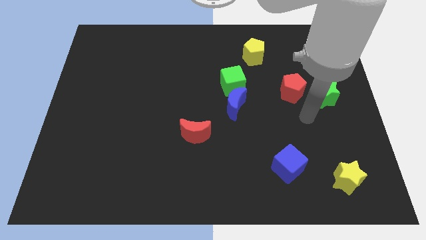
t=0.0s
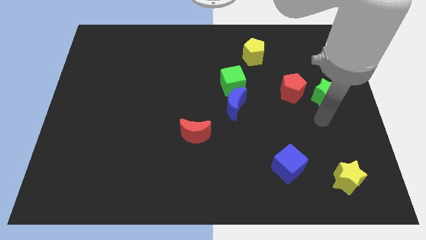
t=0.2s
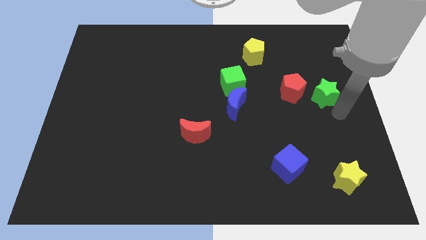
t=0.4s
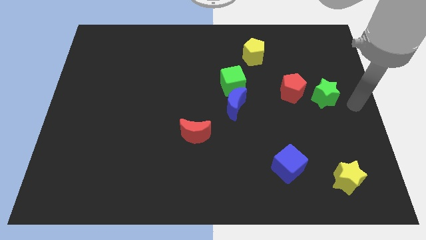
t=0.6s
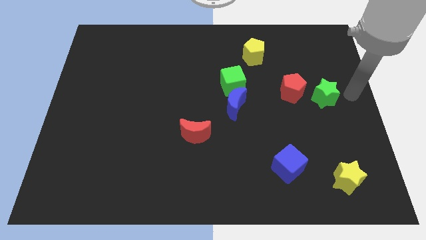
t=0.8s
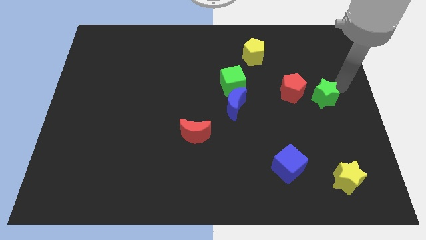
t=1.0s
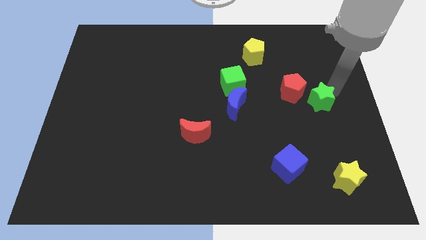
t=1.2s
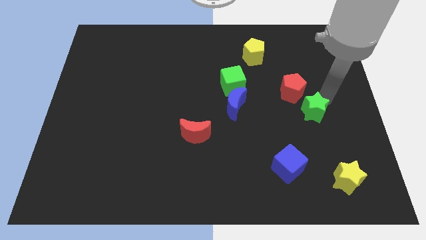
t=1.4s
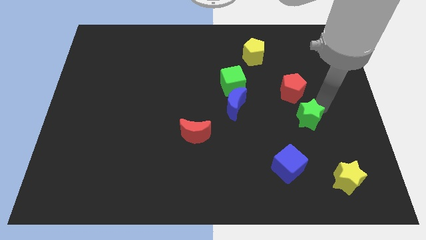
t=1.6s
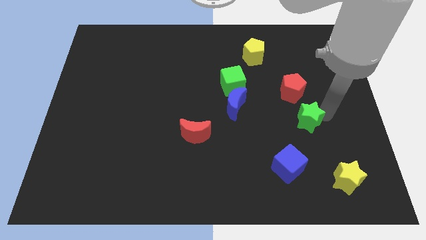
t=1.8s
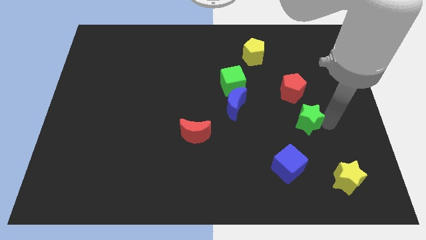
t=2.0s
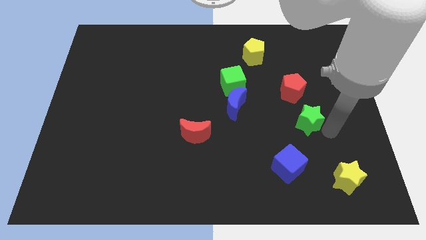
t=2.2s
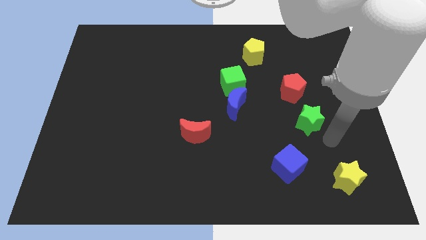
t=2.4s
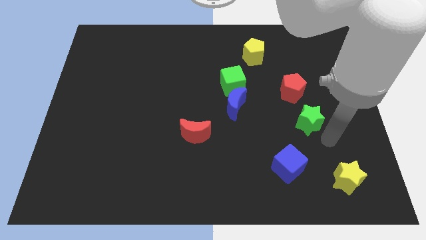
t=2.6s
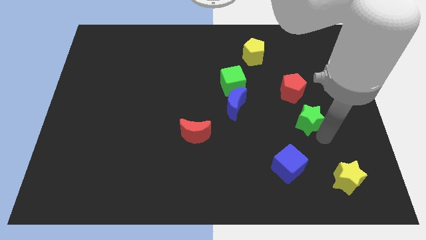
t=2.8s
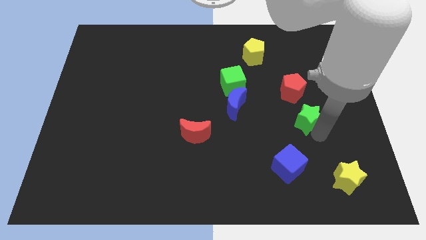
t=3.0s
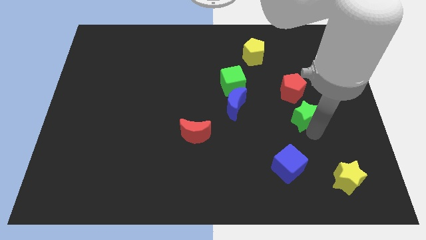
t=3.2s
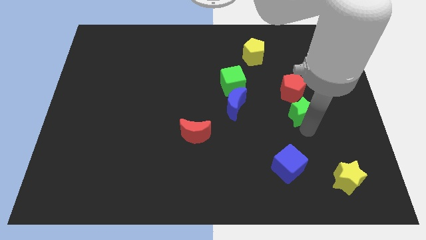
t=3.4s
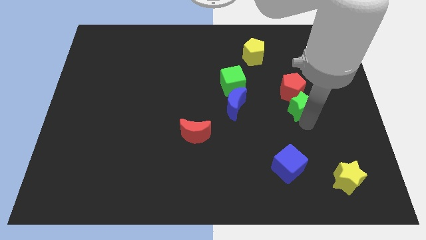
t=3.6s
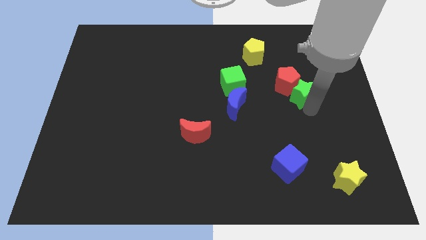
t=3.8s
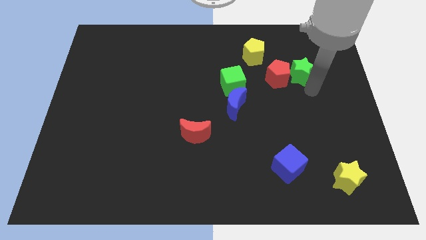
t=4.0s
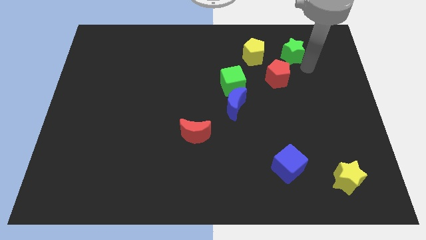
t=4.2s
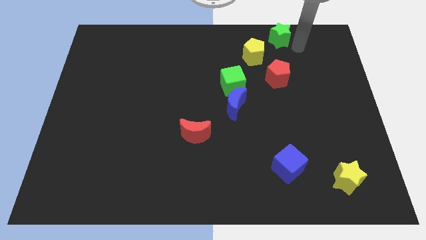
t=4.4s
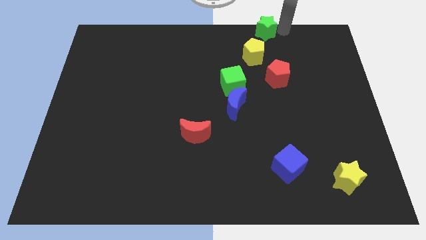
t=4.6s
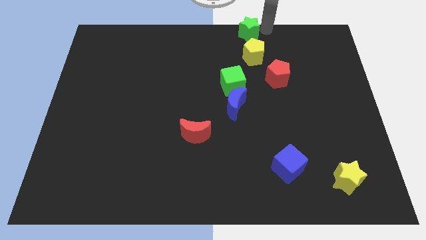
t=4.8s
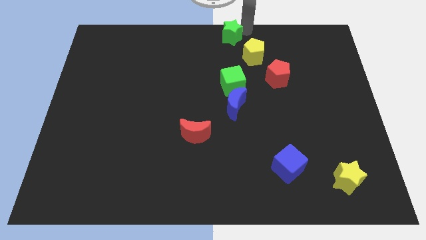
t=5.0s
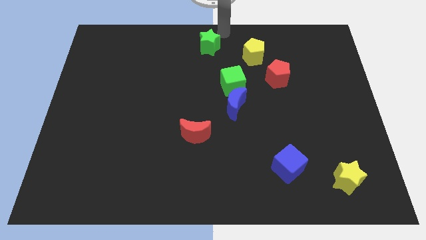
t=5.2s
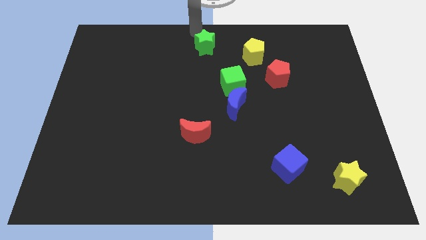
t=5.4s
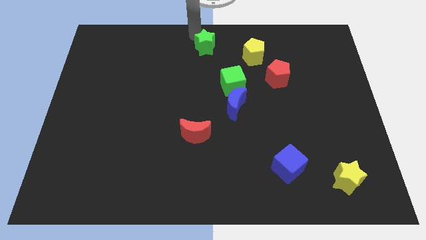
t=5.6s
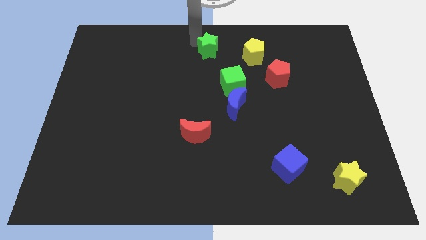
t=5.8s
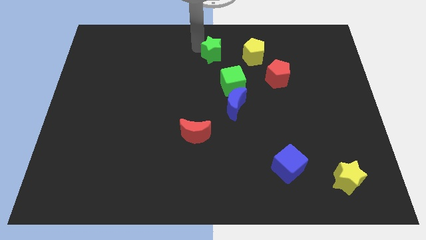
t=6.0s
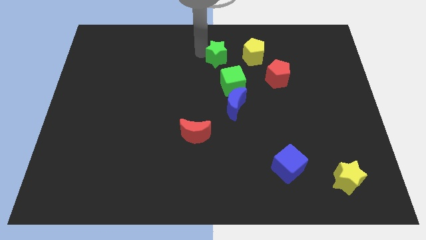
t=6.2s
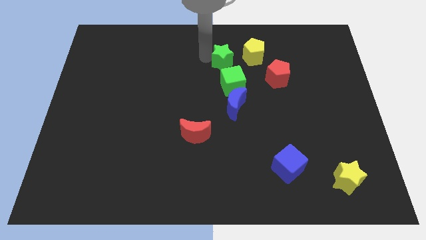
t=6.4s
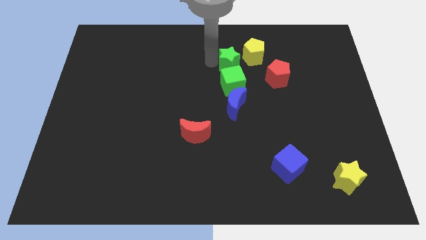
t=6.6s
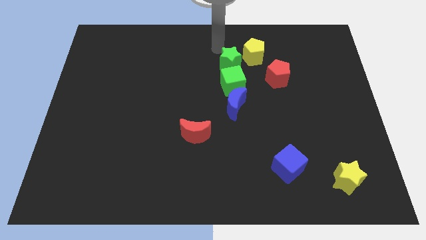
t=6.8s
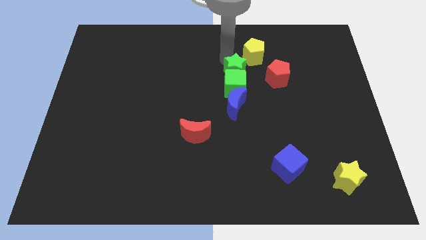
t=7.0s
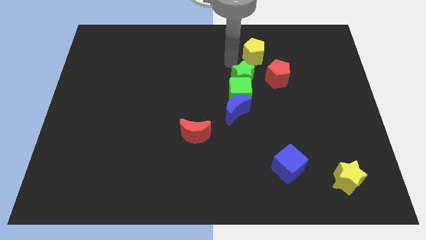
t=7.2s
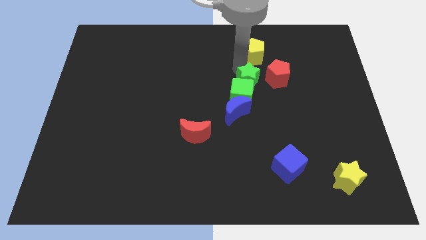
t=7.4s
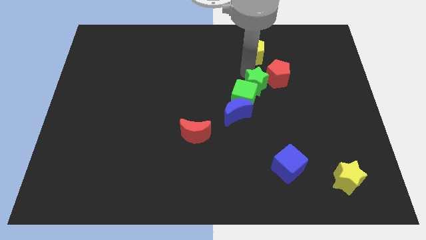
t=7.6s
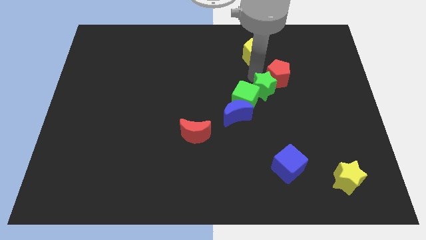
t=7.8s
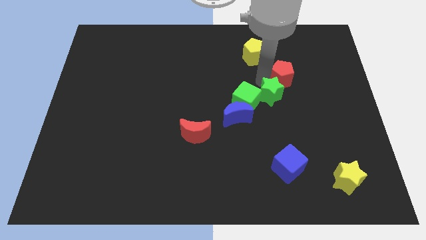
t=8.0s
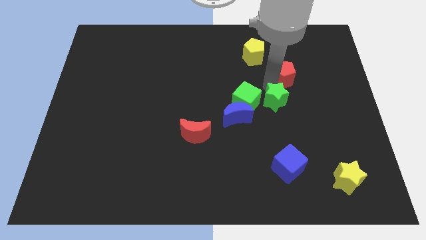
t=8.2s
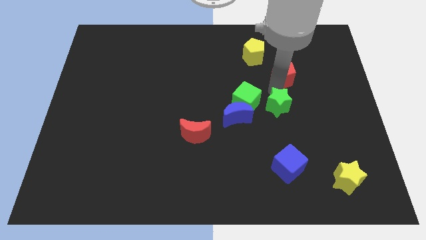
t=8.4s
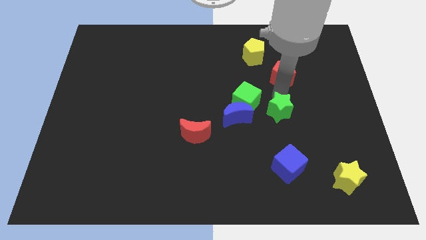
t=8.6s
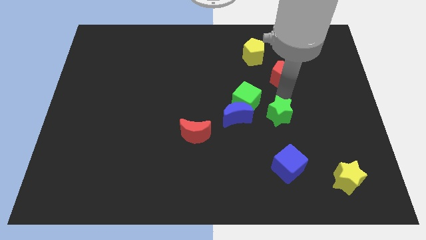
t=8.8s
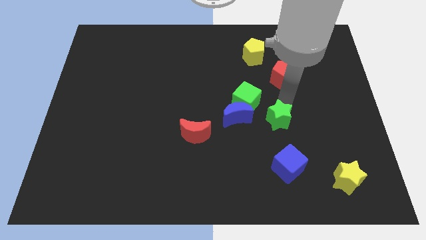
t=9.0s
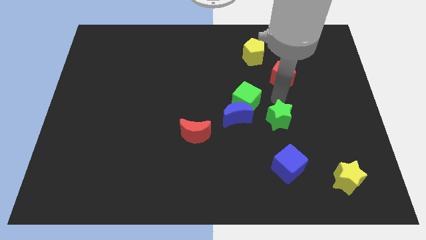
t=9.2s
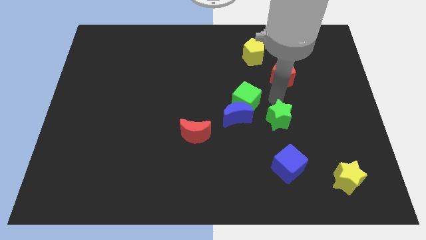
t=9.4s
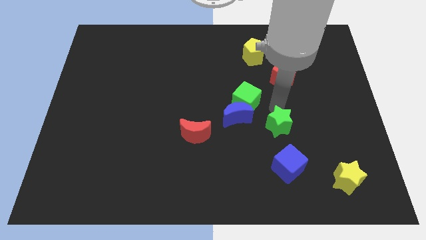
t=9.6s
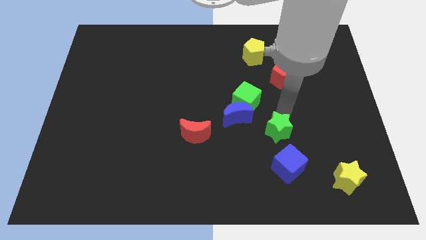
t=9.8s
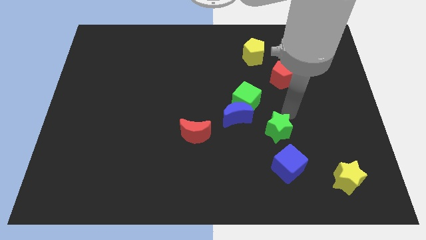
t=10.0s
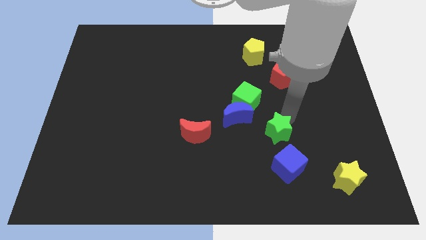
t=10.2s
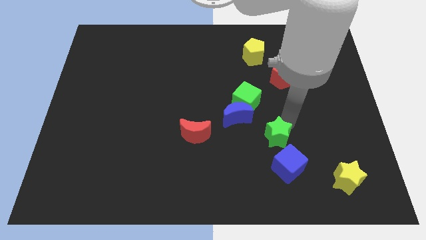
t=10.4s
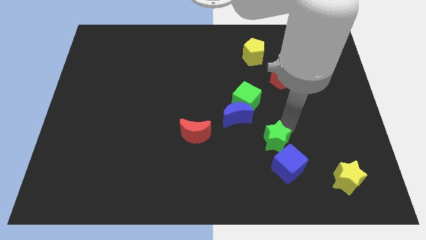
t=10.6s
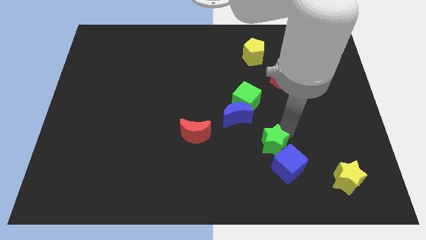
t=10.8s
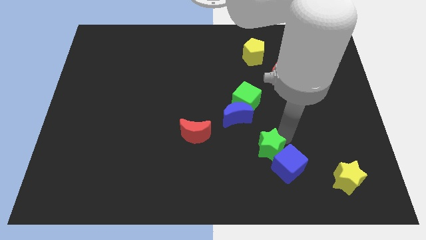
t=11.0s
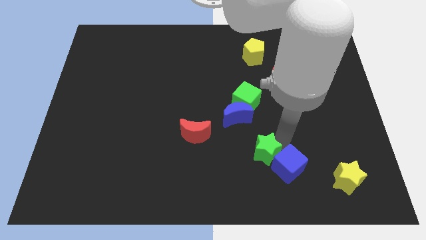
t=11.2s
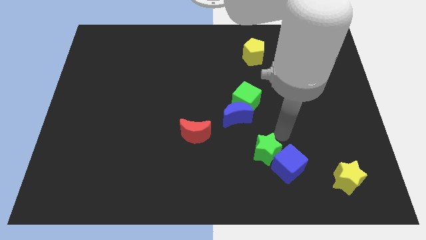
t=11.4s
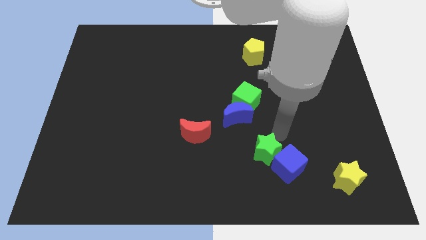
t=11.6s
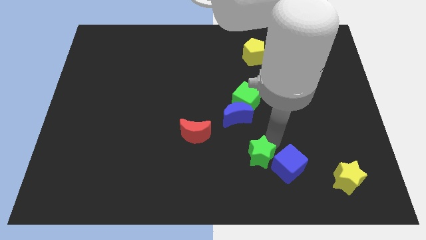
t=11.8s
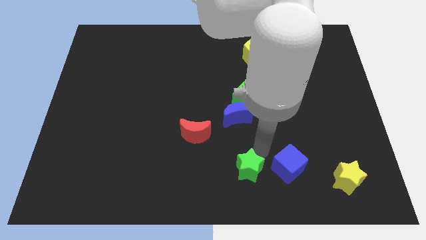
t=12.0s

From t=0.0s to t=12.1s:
move the green star to the bottom side

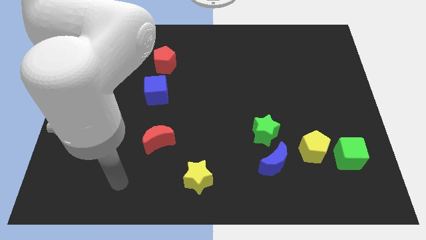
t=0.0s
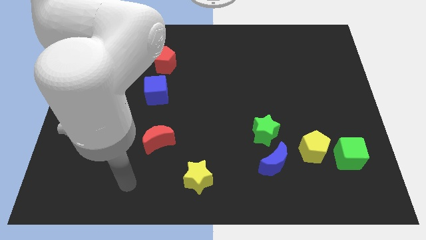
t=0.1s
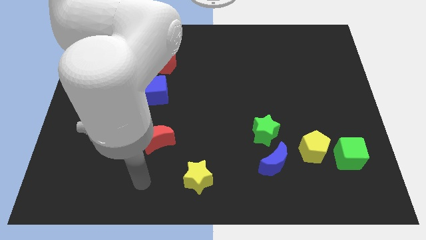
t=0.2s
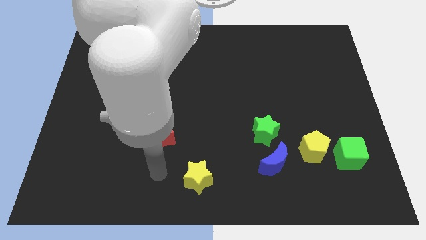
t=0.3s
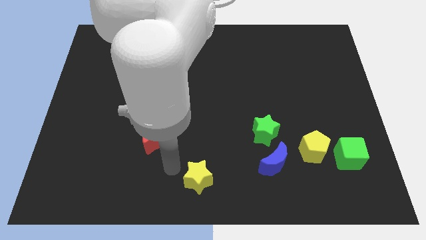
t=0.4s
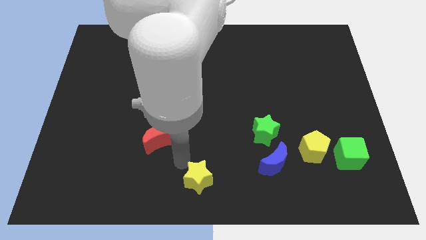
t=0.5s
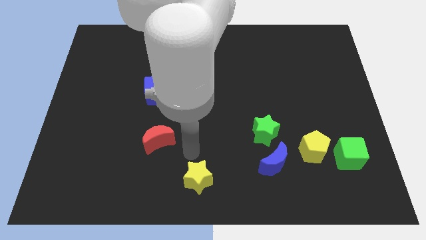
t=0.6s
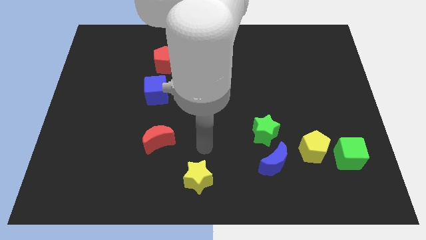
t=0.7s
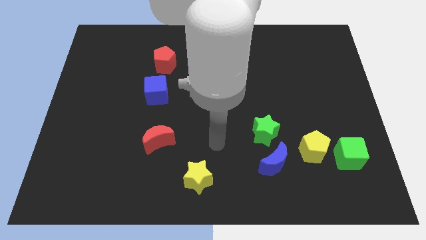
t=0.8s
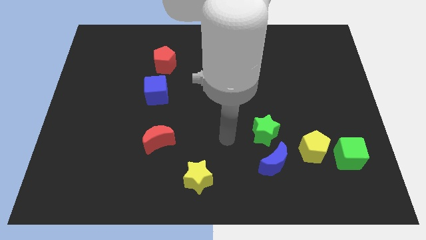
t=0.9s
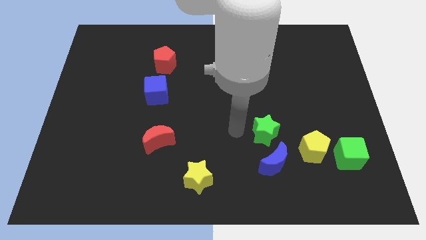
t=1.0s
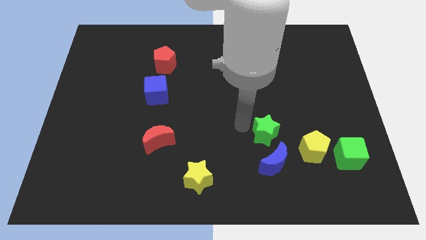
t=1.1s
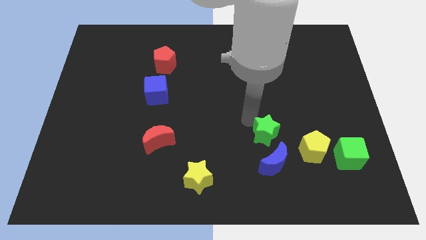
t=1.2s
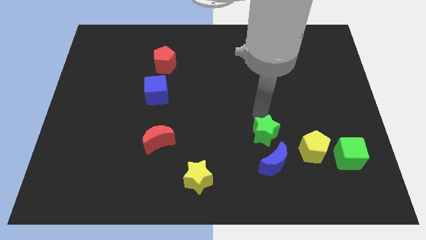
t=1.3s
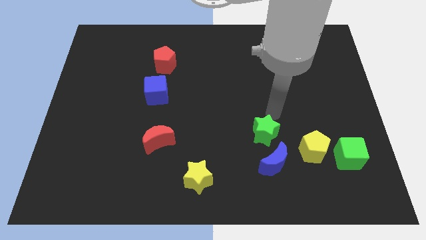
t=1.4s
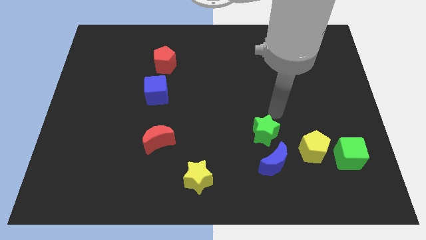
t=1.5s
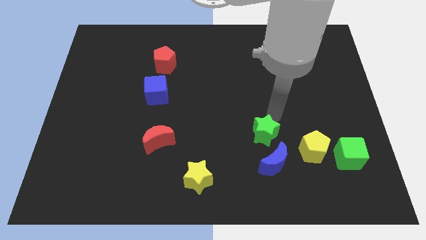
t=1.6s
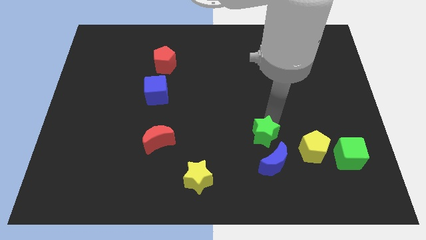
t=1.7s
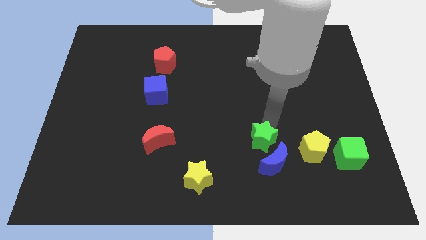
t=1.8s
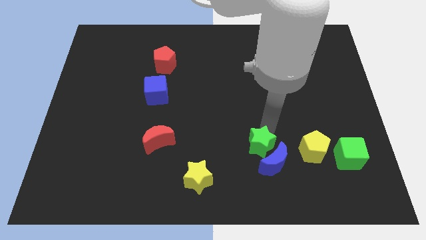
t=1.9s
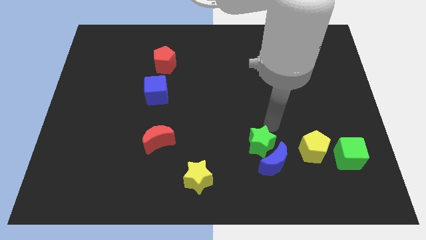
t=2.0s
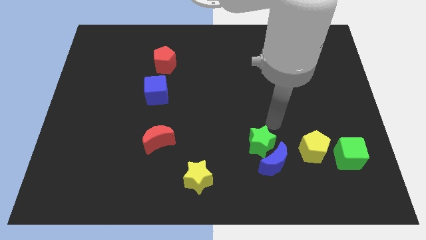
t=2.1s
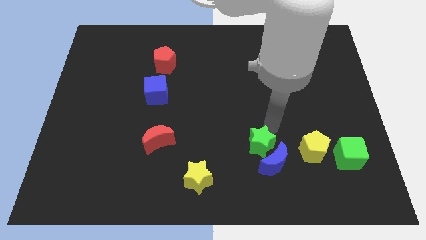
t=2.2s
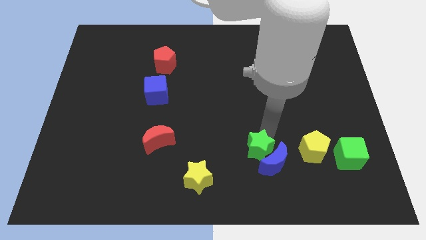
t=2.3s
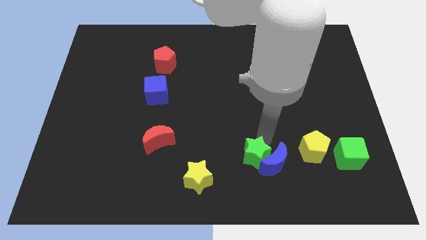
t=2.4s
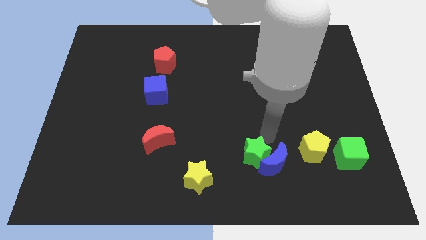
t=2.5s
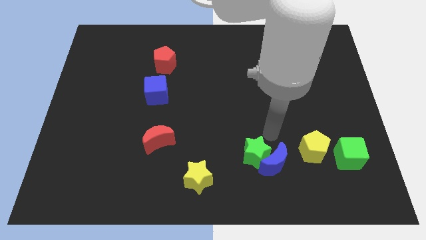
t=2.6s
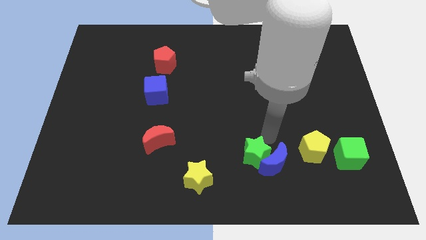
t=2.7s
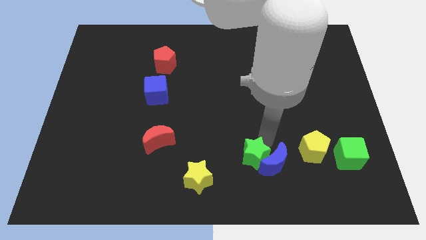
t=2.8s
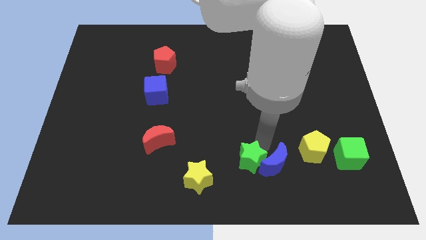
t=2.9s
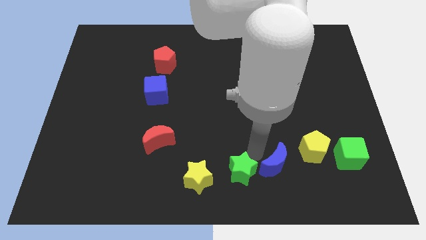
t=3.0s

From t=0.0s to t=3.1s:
push the green star to the bottom side
